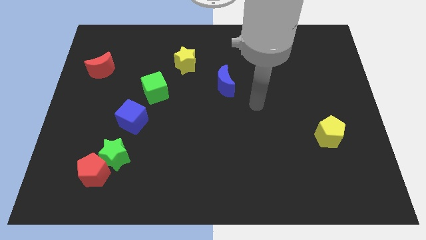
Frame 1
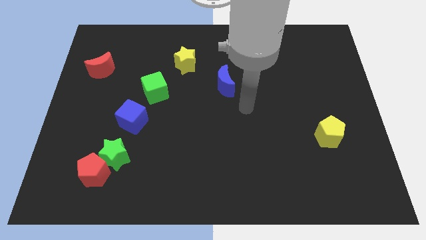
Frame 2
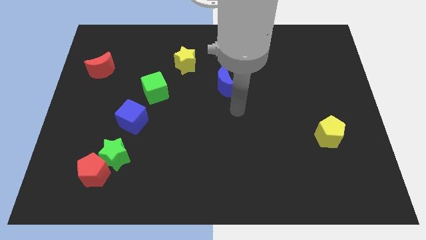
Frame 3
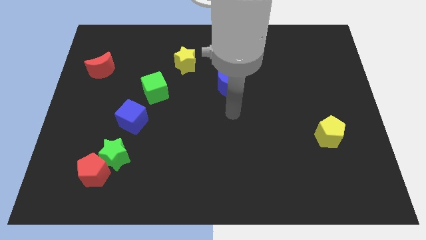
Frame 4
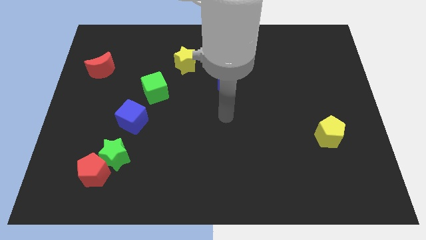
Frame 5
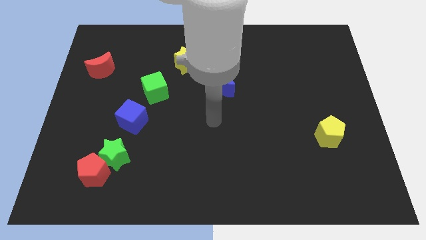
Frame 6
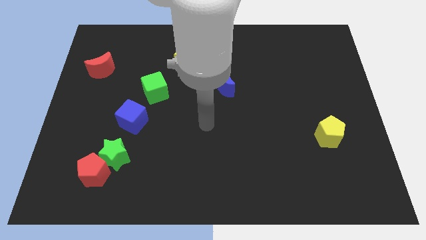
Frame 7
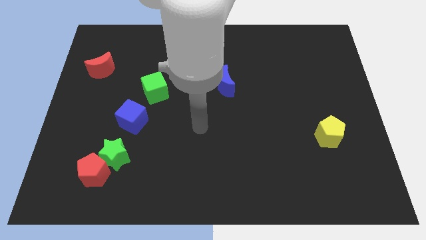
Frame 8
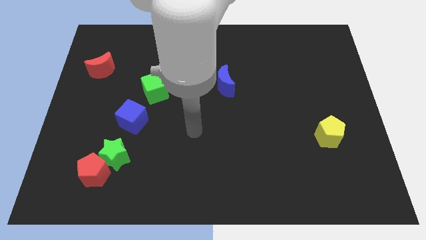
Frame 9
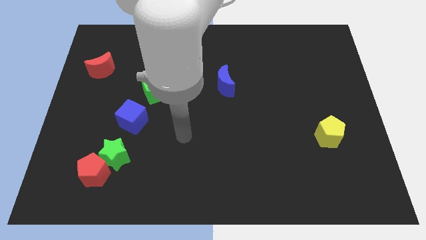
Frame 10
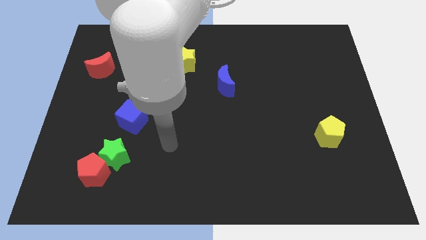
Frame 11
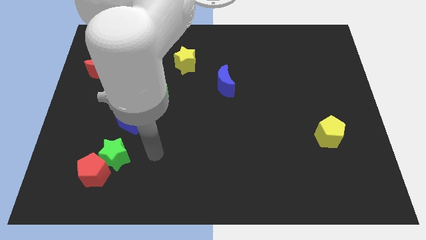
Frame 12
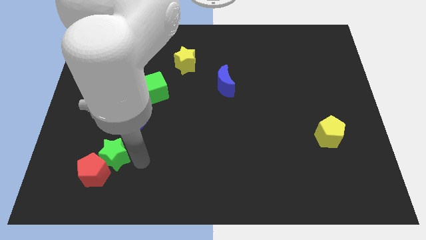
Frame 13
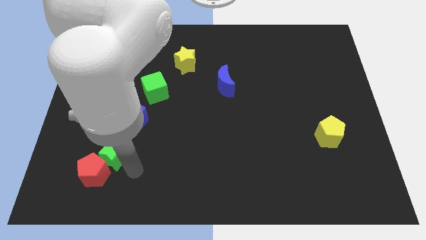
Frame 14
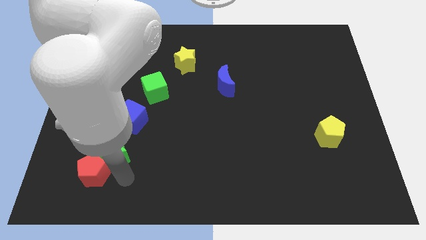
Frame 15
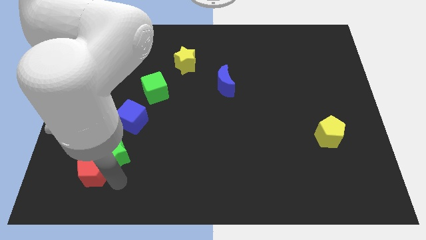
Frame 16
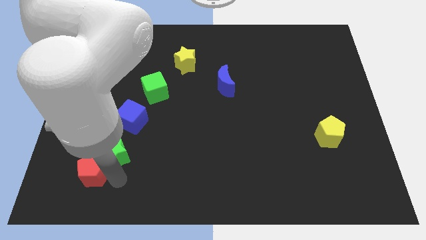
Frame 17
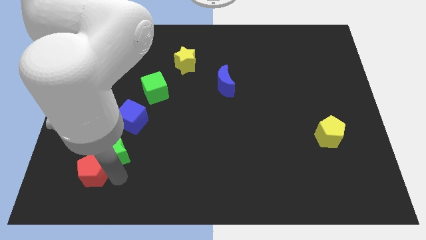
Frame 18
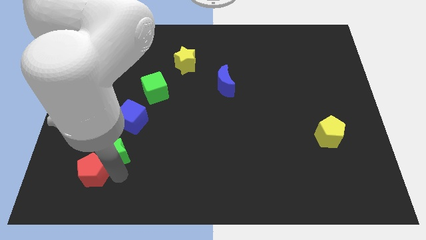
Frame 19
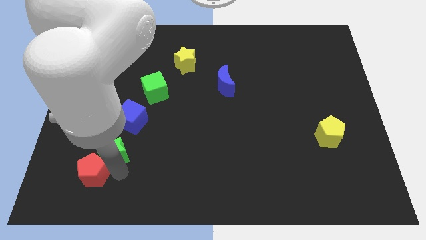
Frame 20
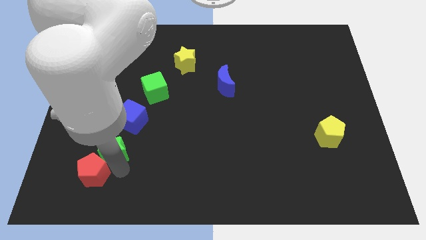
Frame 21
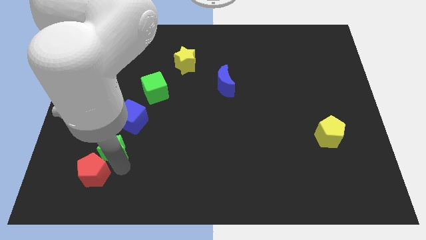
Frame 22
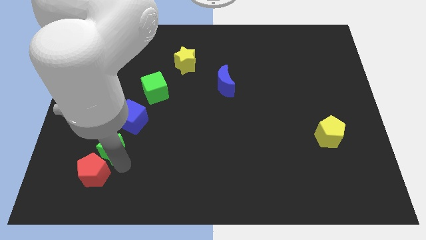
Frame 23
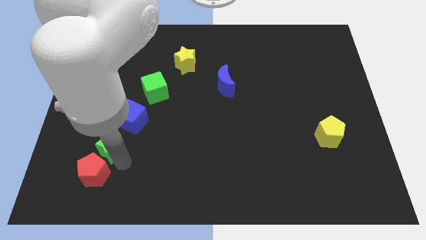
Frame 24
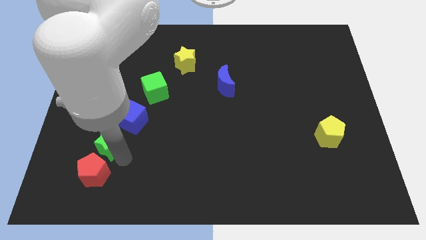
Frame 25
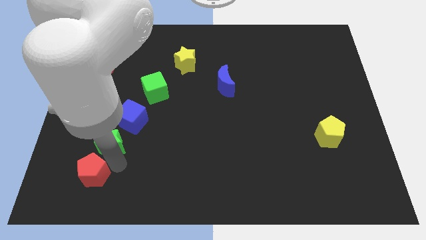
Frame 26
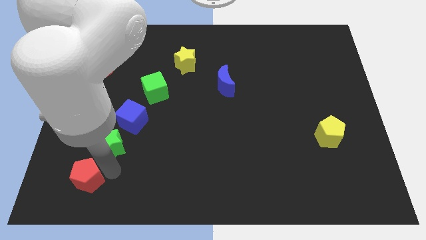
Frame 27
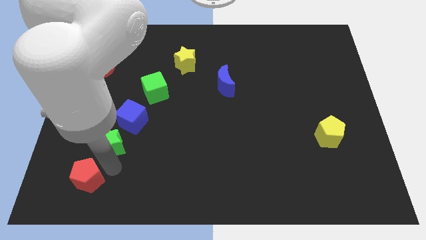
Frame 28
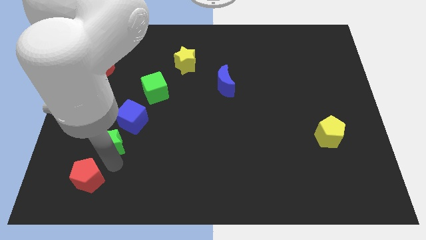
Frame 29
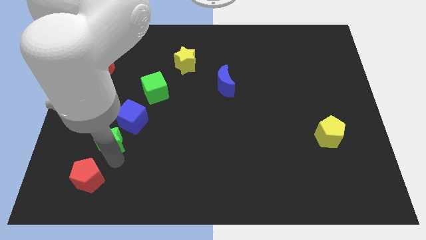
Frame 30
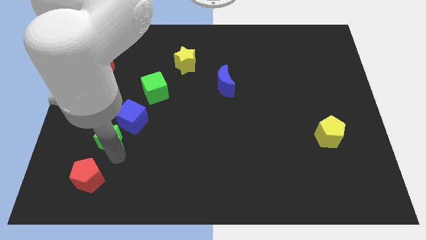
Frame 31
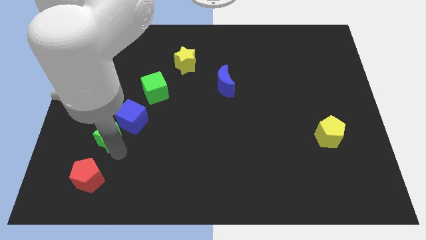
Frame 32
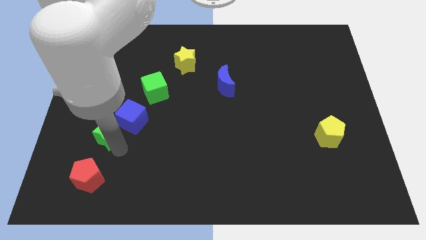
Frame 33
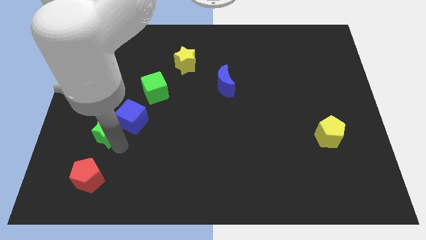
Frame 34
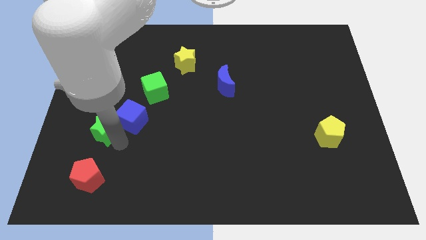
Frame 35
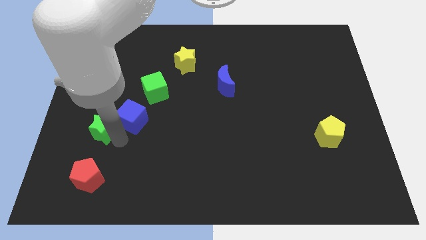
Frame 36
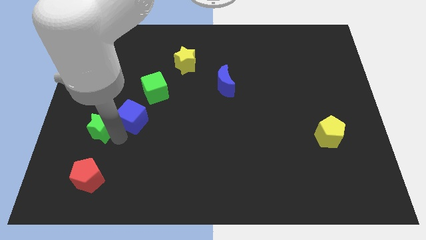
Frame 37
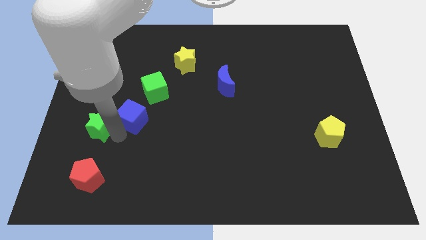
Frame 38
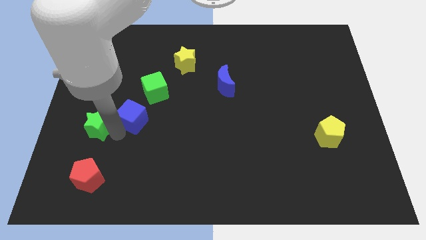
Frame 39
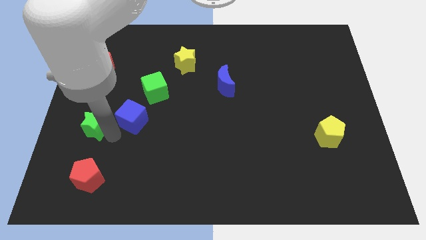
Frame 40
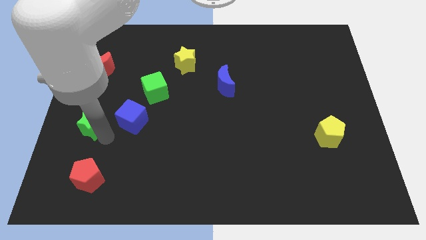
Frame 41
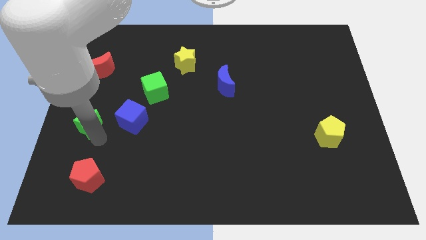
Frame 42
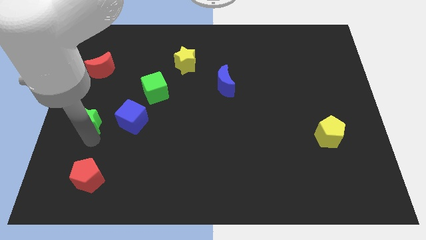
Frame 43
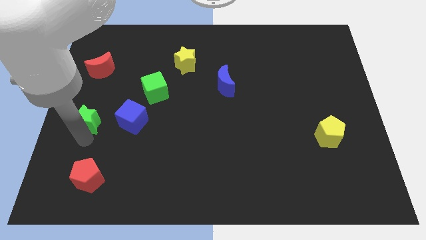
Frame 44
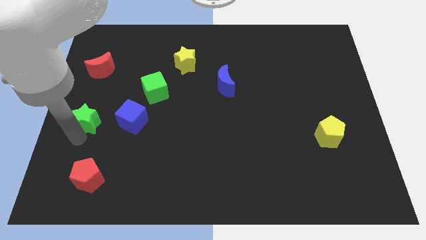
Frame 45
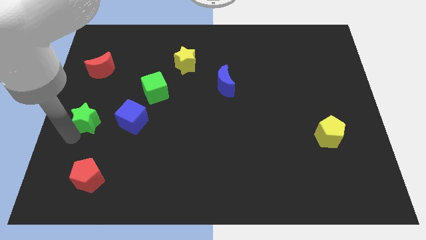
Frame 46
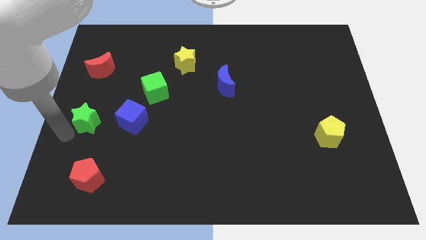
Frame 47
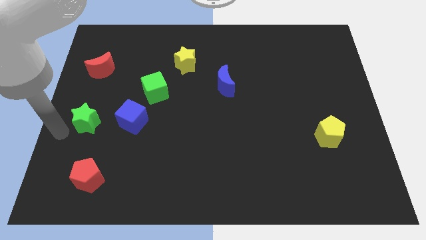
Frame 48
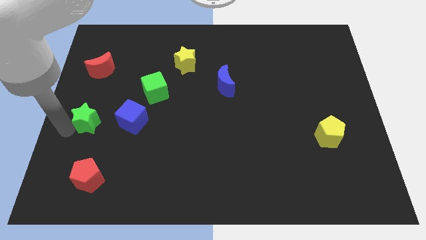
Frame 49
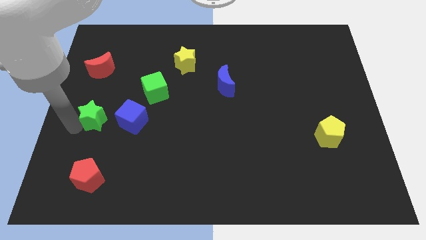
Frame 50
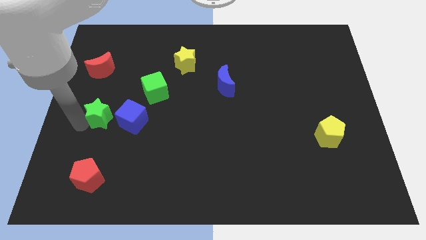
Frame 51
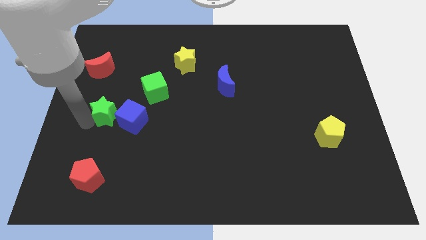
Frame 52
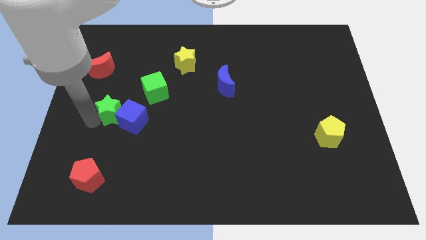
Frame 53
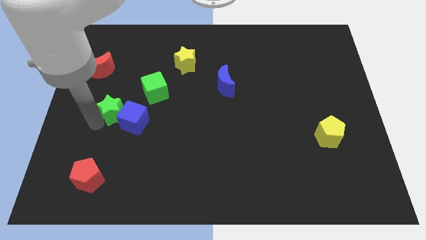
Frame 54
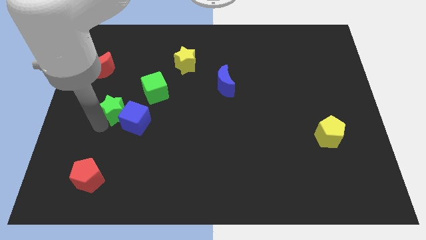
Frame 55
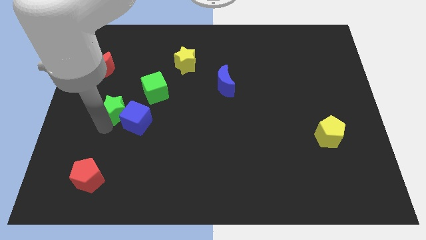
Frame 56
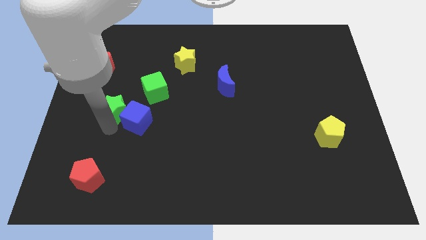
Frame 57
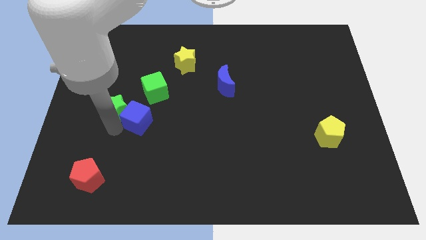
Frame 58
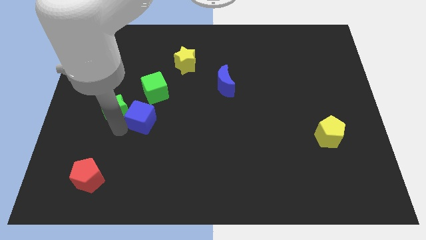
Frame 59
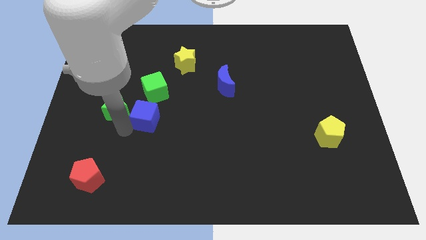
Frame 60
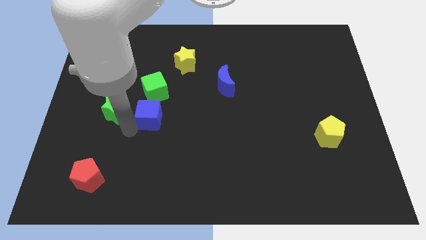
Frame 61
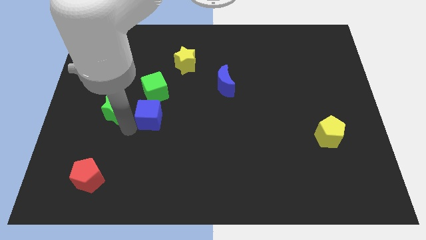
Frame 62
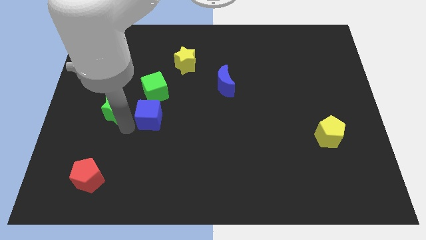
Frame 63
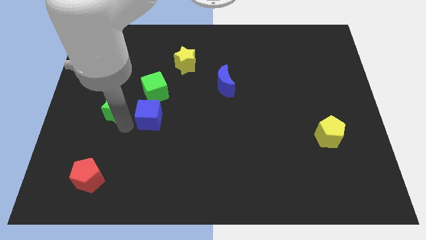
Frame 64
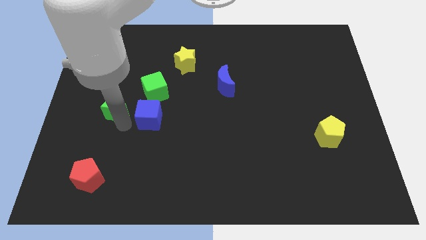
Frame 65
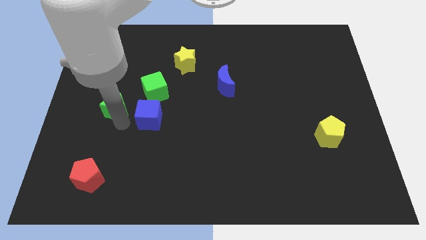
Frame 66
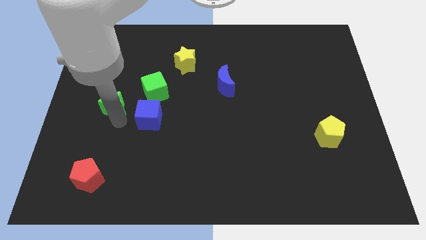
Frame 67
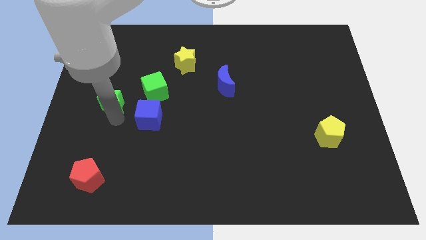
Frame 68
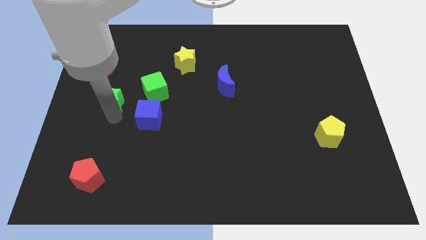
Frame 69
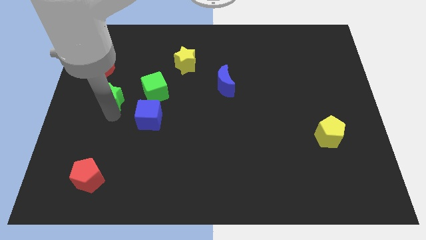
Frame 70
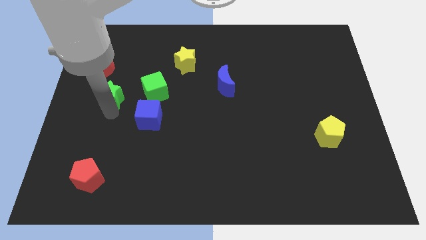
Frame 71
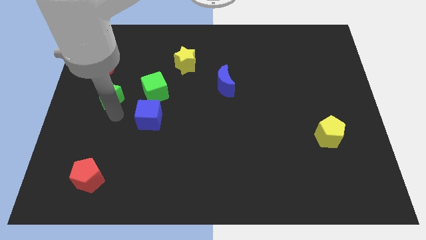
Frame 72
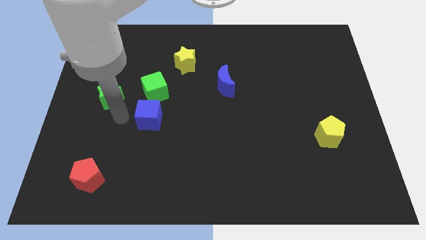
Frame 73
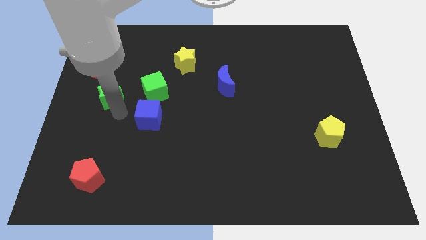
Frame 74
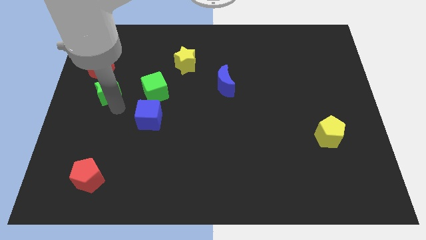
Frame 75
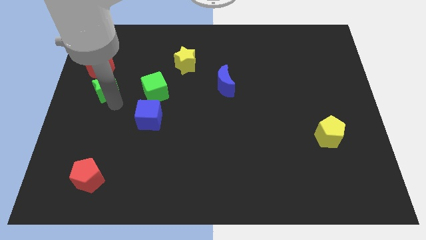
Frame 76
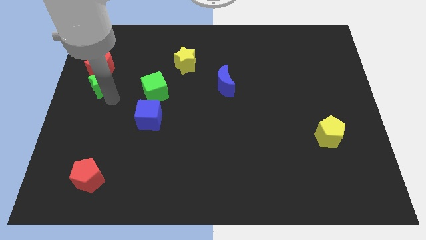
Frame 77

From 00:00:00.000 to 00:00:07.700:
put the green star close to the red moon
